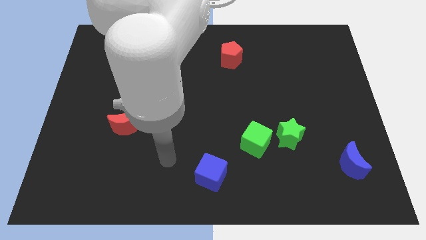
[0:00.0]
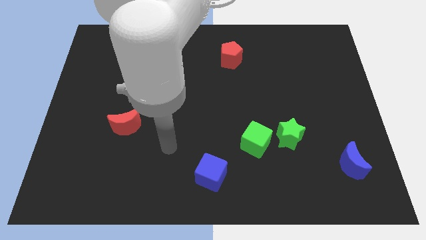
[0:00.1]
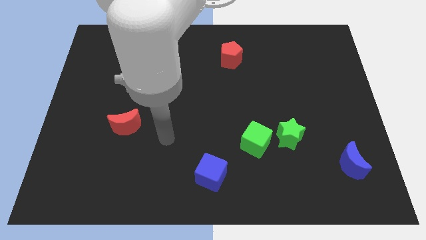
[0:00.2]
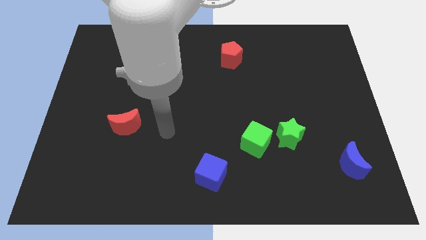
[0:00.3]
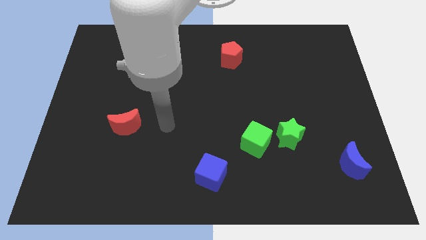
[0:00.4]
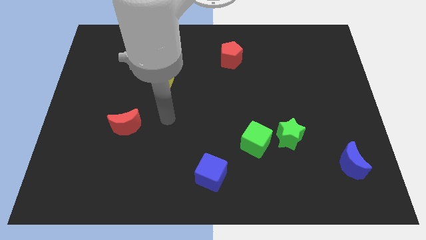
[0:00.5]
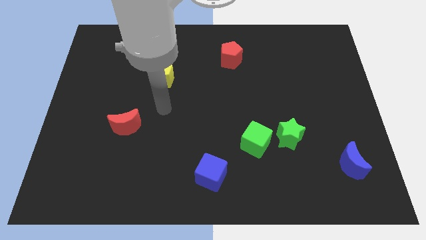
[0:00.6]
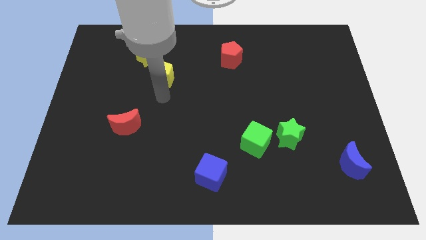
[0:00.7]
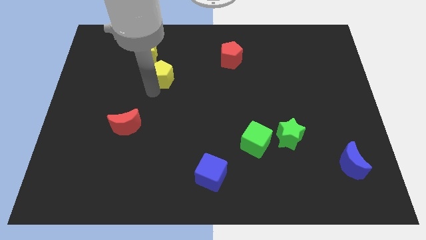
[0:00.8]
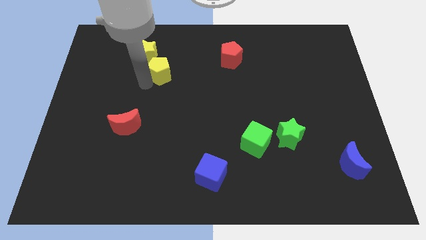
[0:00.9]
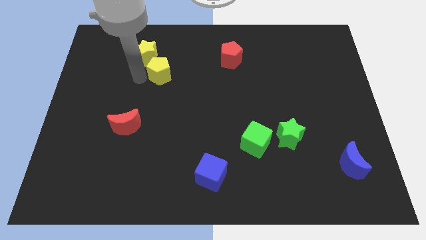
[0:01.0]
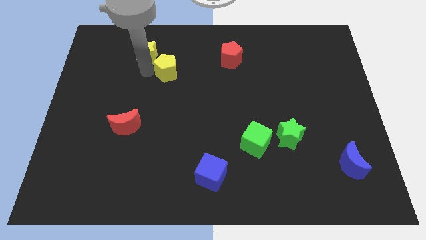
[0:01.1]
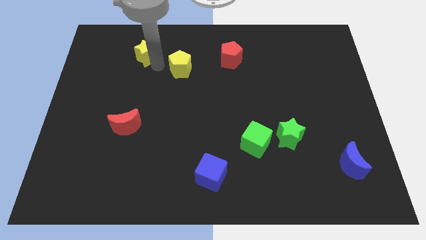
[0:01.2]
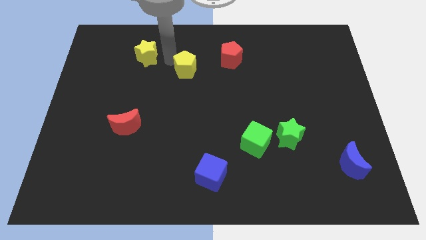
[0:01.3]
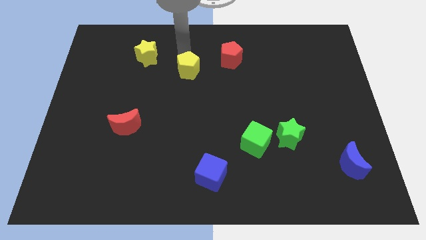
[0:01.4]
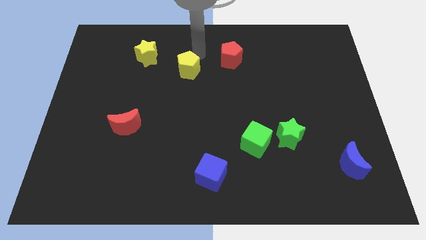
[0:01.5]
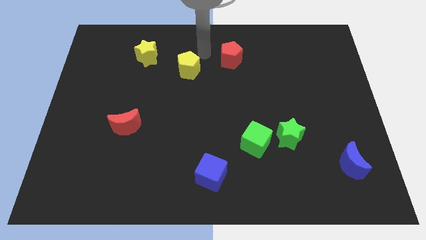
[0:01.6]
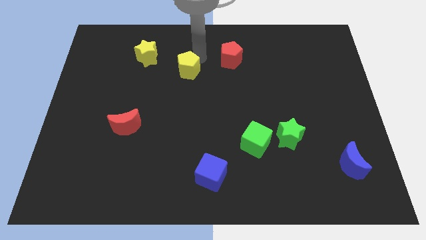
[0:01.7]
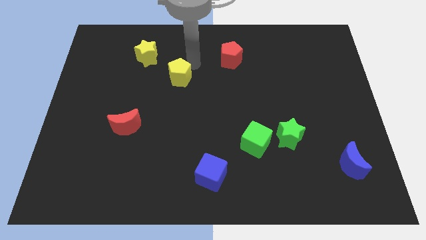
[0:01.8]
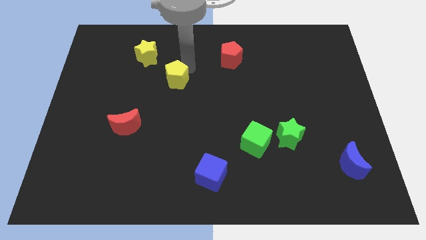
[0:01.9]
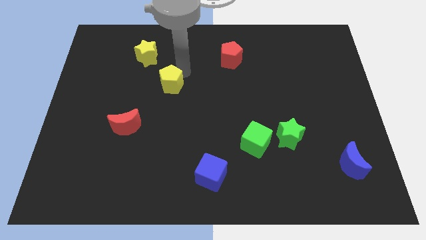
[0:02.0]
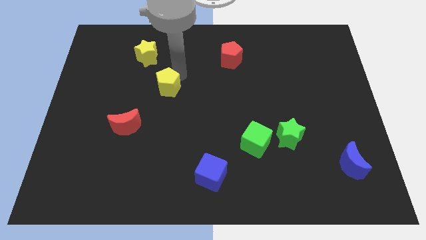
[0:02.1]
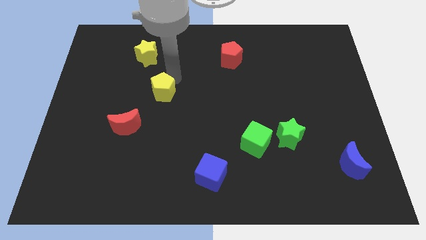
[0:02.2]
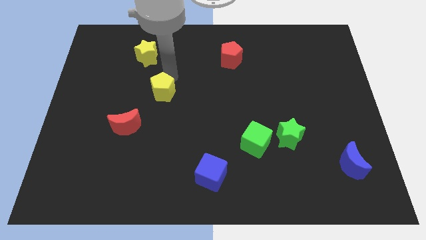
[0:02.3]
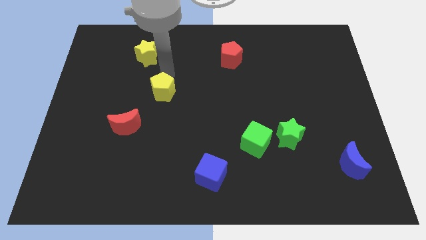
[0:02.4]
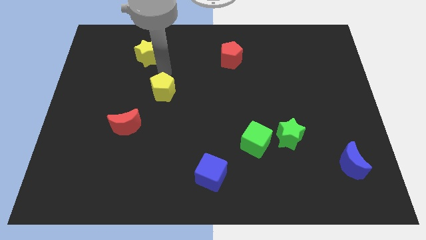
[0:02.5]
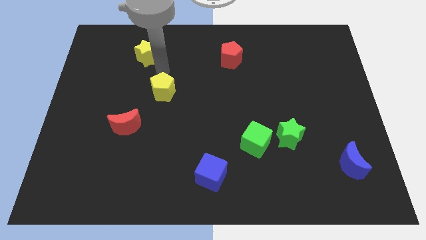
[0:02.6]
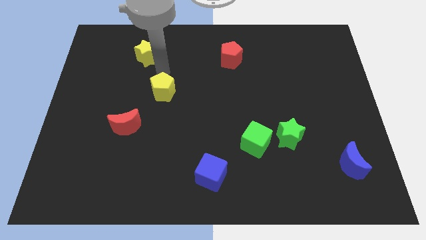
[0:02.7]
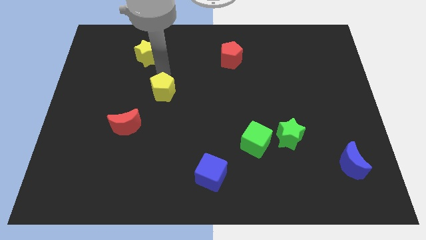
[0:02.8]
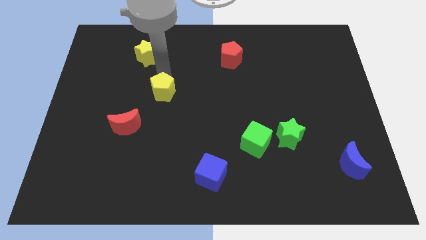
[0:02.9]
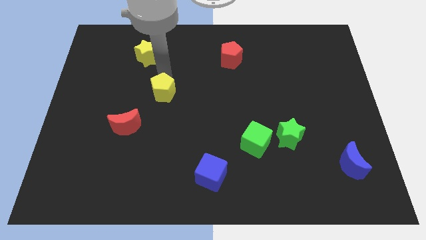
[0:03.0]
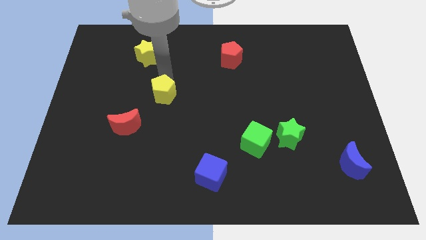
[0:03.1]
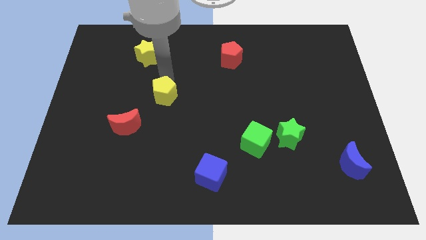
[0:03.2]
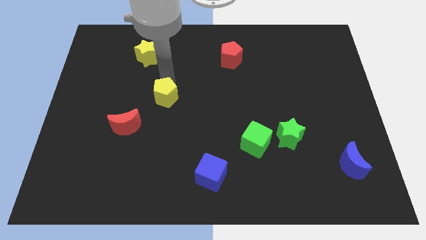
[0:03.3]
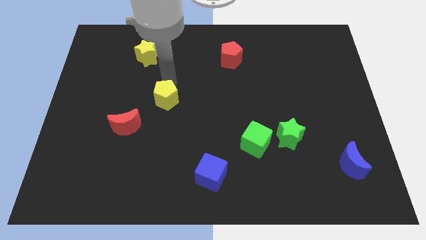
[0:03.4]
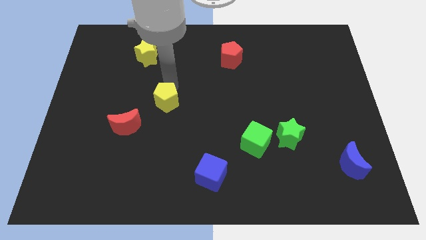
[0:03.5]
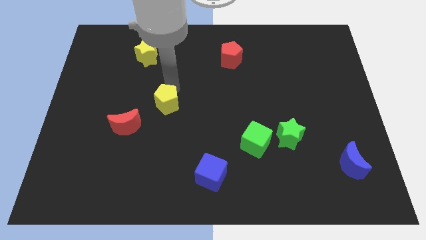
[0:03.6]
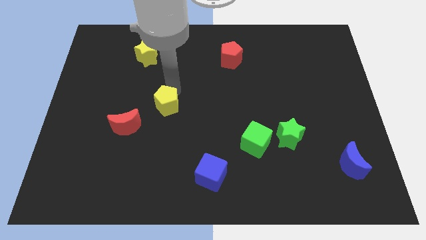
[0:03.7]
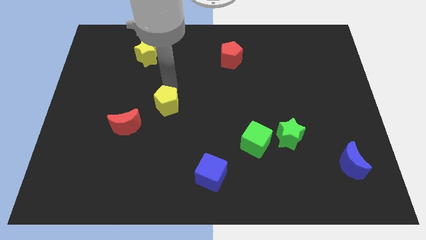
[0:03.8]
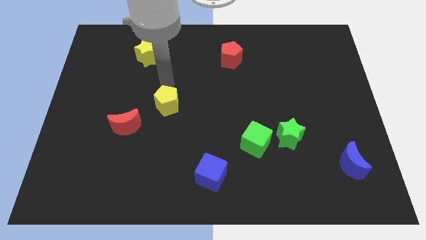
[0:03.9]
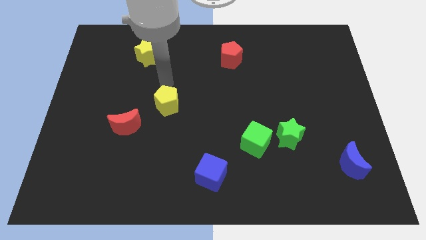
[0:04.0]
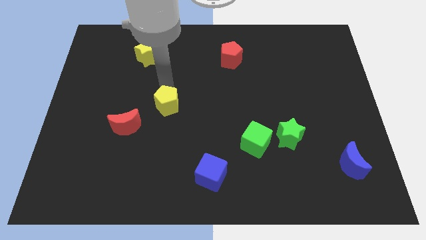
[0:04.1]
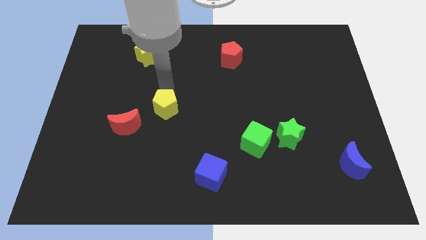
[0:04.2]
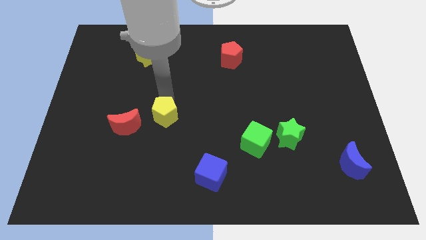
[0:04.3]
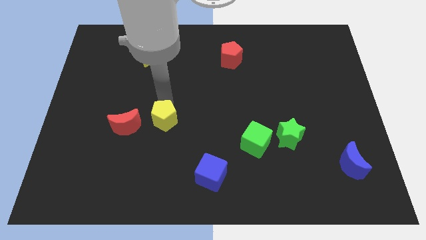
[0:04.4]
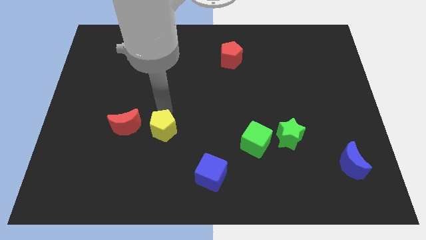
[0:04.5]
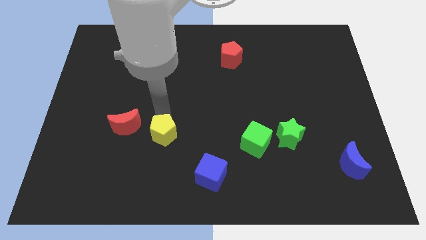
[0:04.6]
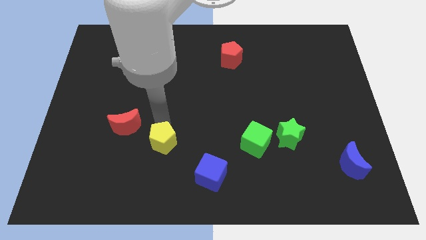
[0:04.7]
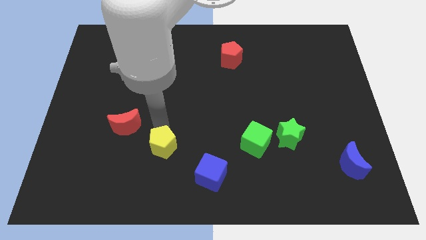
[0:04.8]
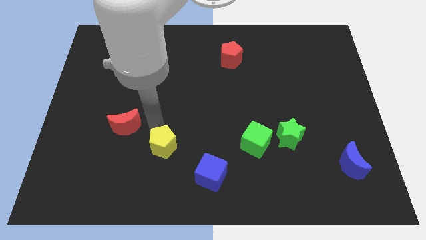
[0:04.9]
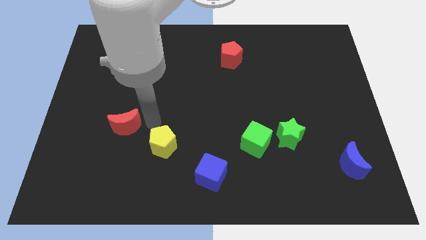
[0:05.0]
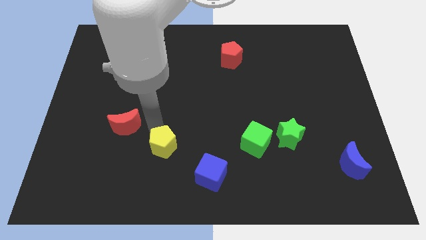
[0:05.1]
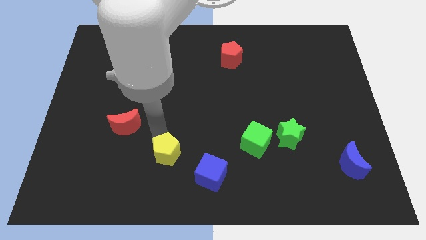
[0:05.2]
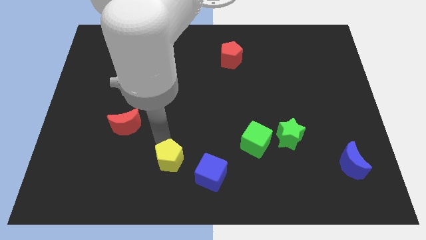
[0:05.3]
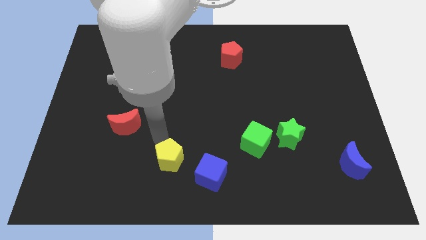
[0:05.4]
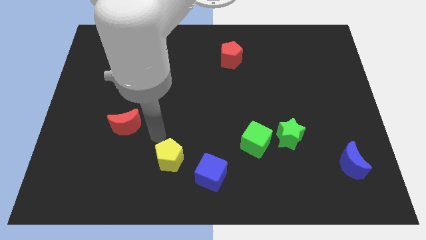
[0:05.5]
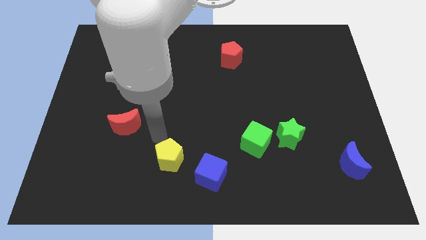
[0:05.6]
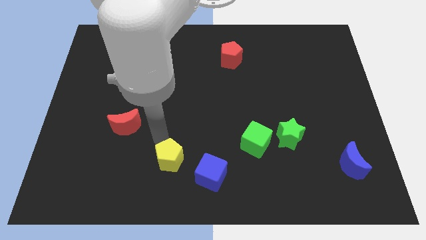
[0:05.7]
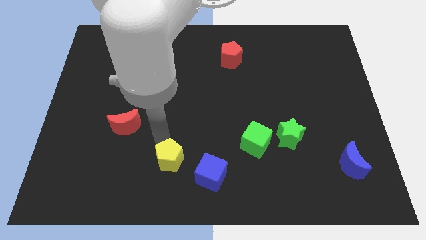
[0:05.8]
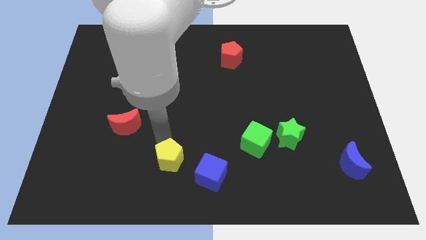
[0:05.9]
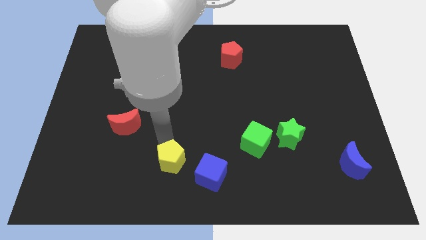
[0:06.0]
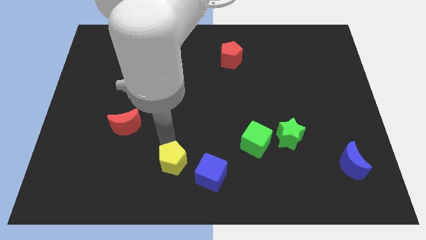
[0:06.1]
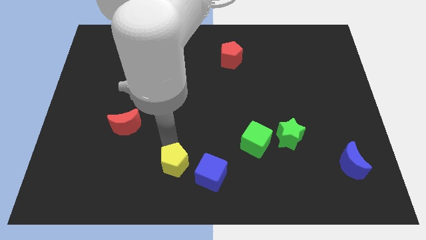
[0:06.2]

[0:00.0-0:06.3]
slide the yellow pentagon to the bottom side

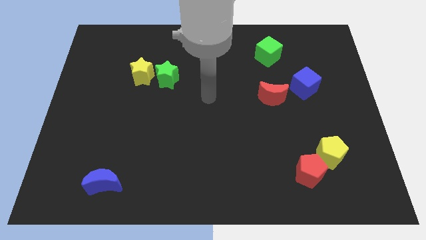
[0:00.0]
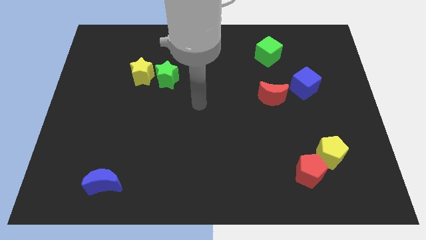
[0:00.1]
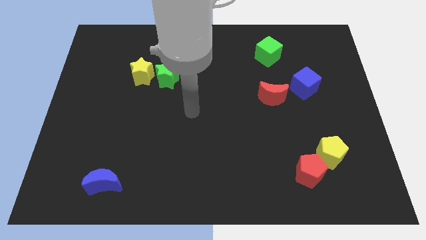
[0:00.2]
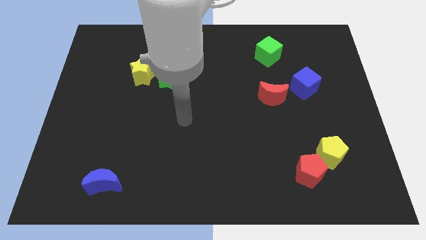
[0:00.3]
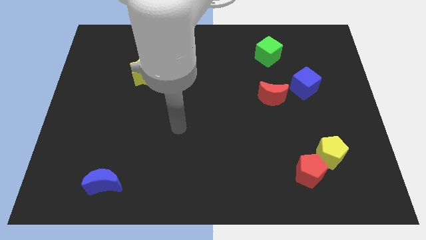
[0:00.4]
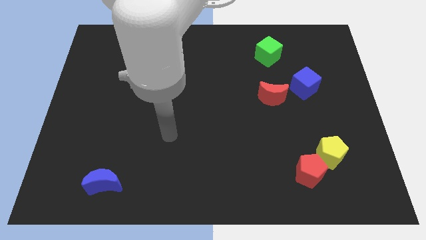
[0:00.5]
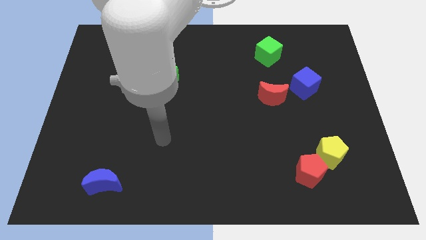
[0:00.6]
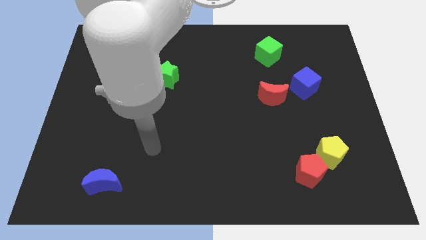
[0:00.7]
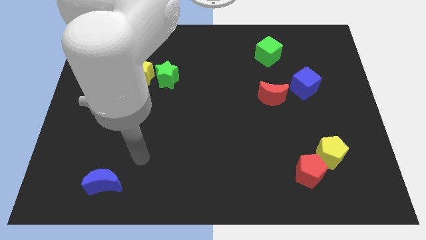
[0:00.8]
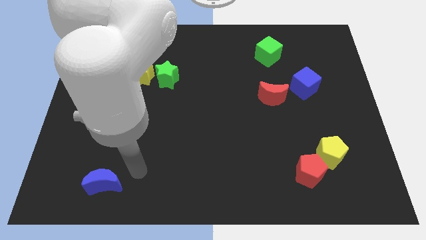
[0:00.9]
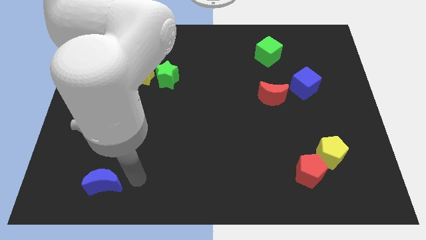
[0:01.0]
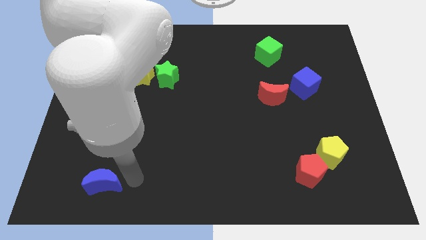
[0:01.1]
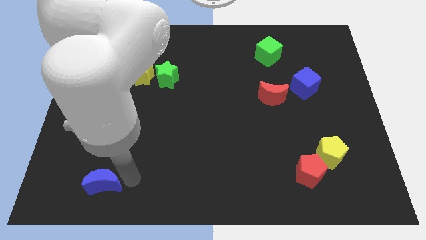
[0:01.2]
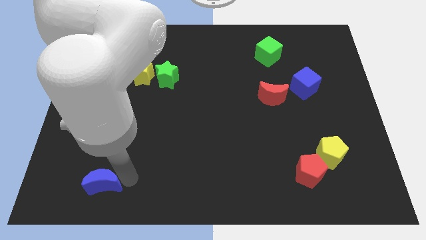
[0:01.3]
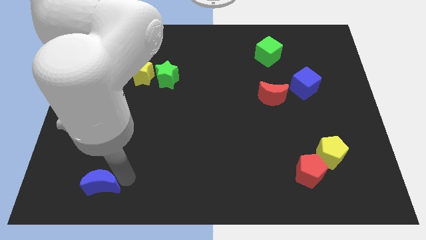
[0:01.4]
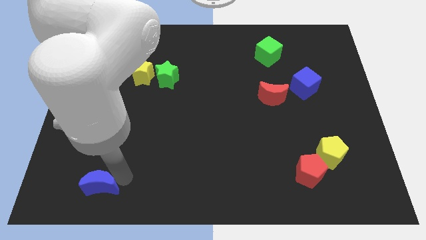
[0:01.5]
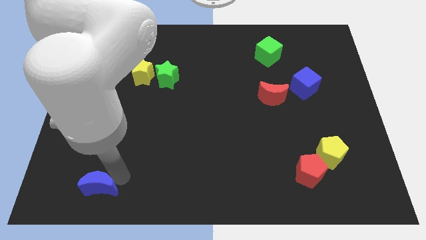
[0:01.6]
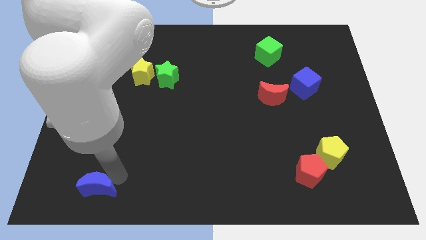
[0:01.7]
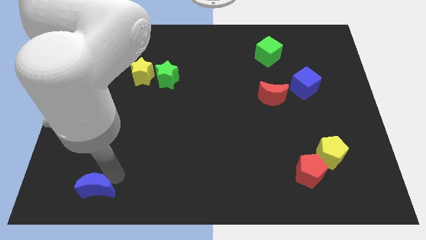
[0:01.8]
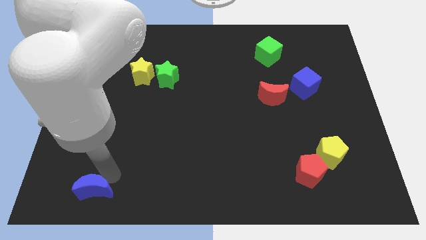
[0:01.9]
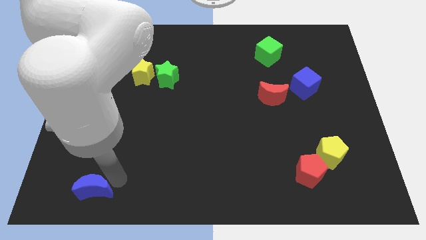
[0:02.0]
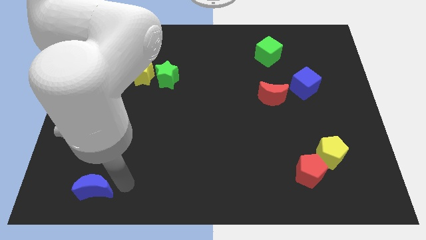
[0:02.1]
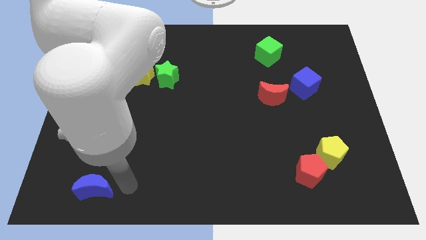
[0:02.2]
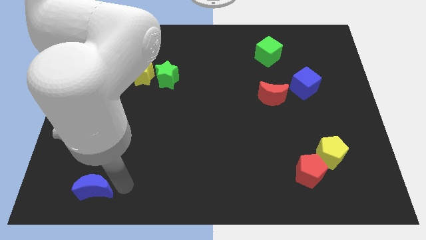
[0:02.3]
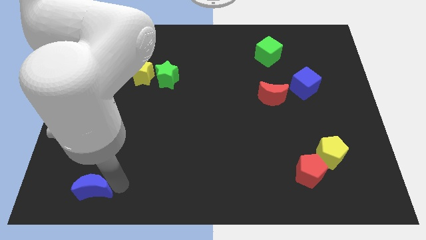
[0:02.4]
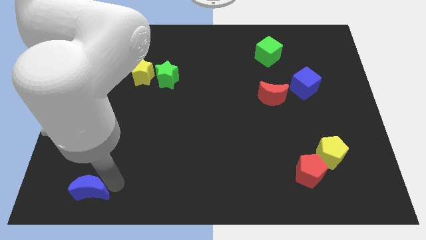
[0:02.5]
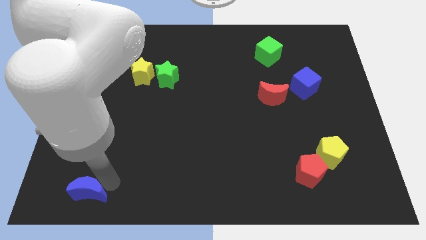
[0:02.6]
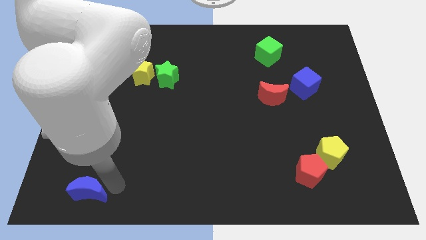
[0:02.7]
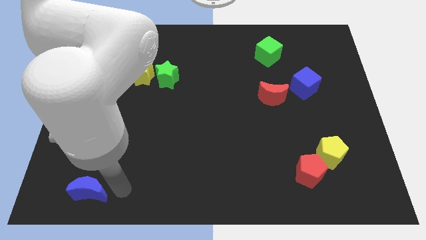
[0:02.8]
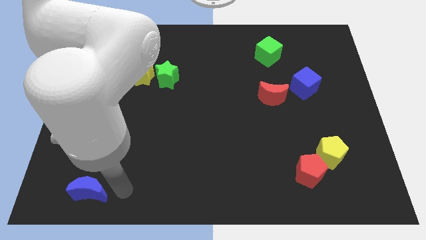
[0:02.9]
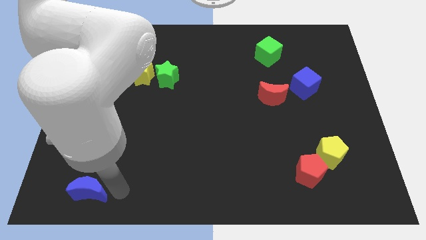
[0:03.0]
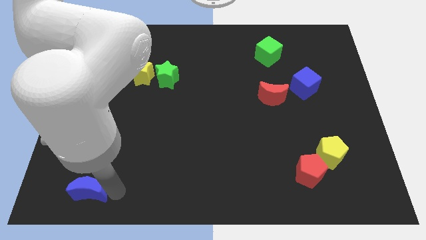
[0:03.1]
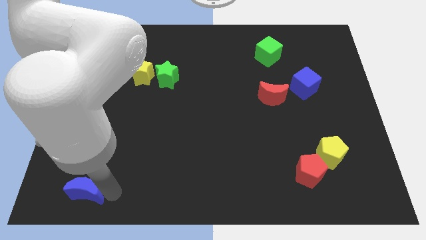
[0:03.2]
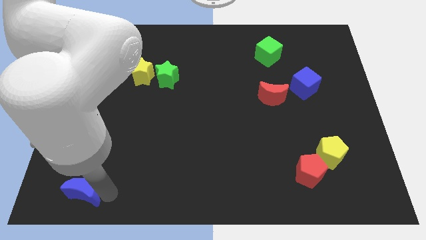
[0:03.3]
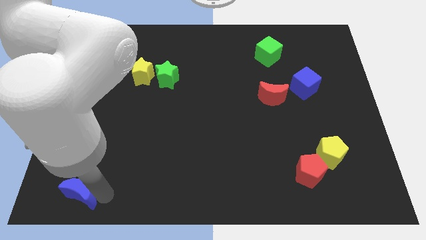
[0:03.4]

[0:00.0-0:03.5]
push the blue moon to the bottom left of the board
